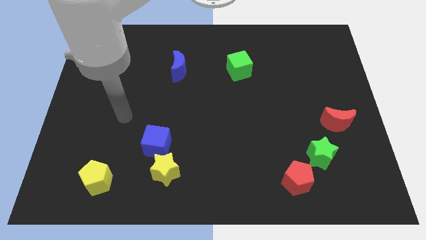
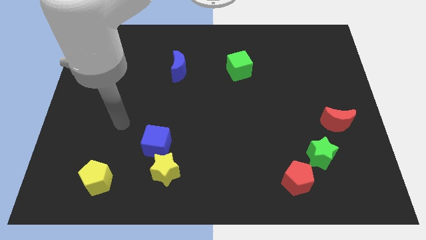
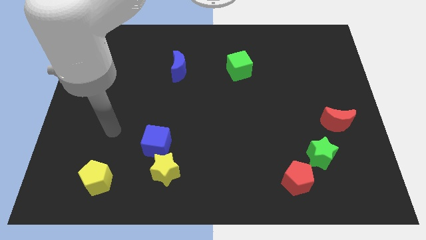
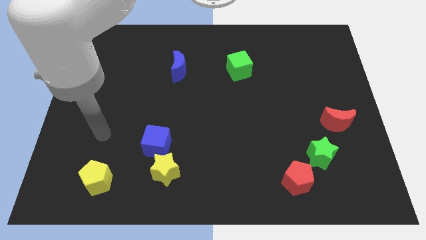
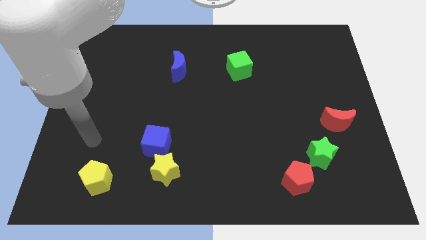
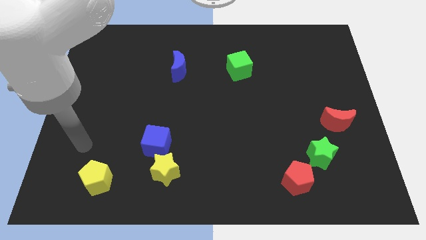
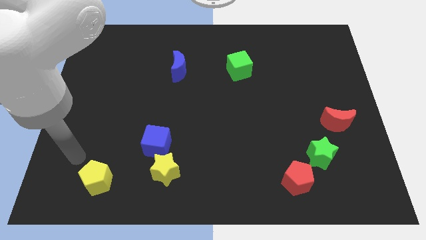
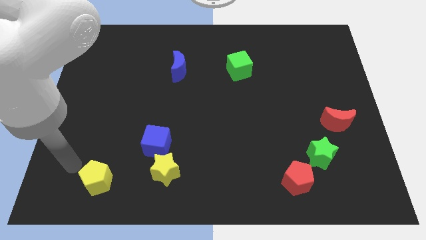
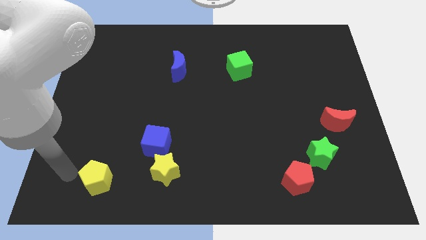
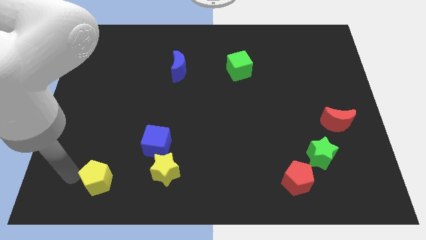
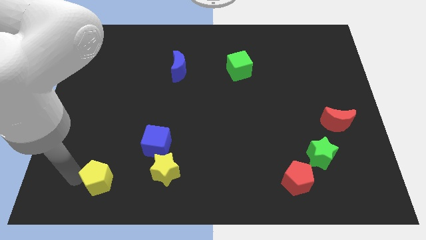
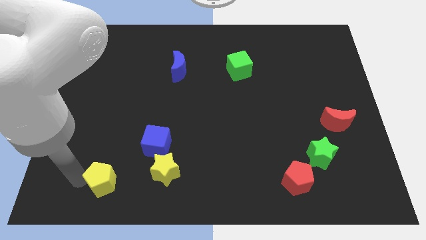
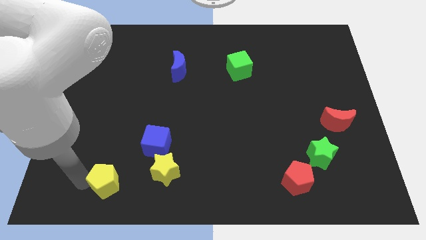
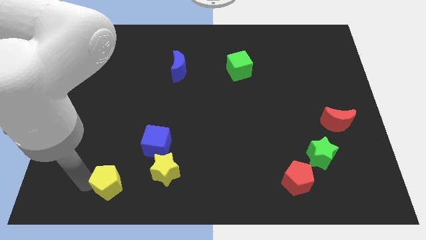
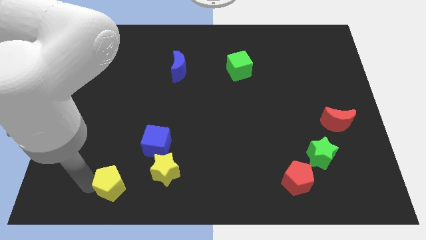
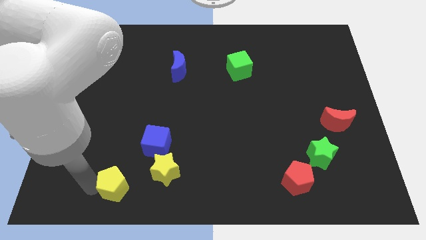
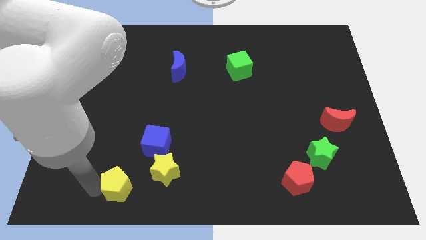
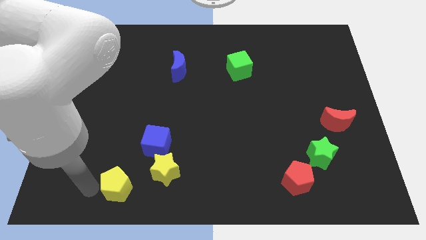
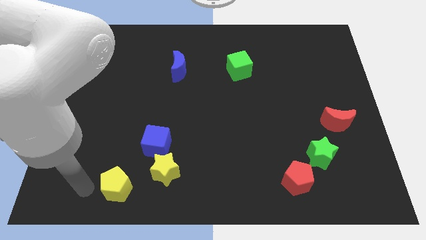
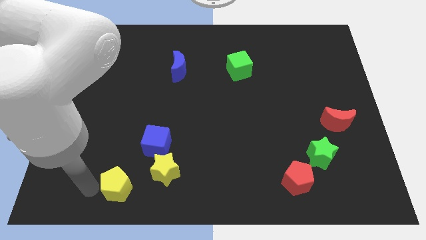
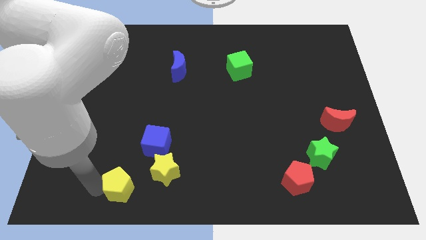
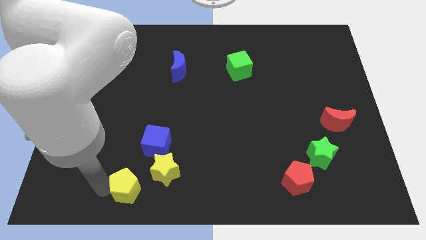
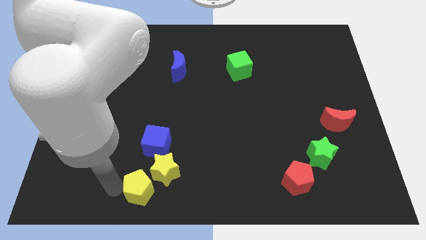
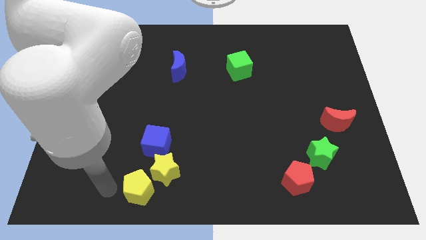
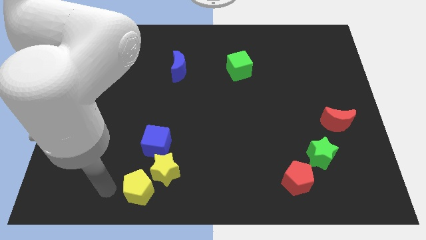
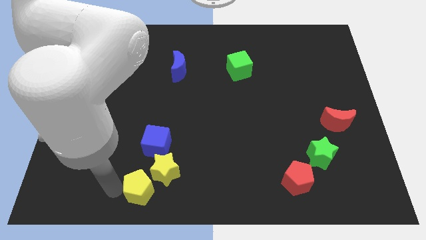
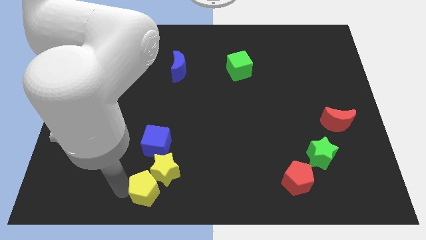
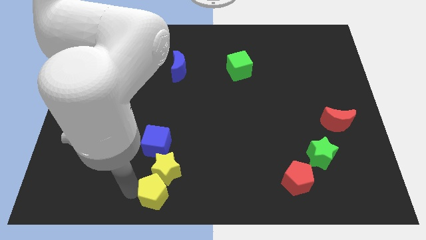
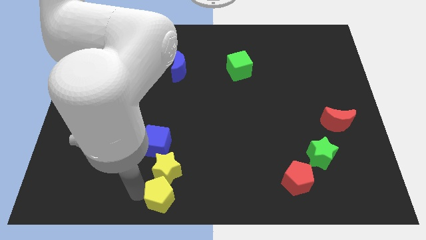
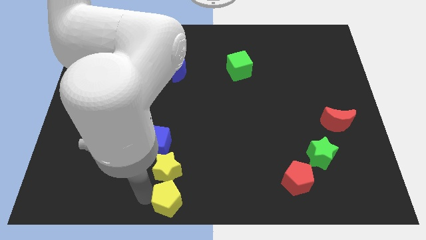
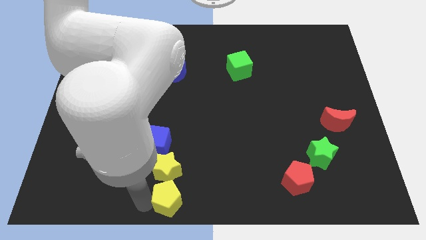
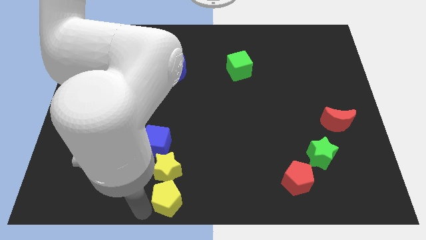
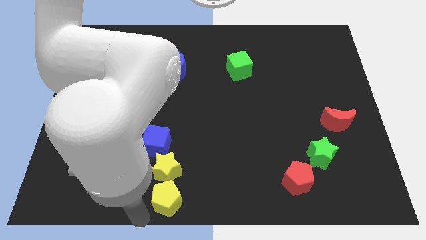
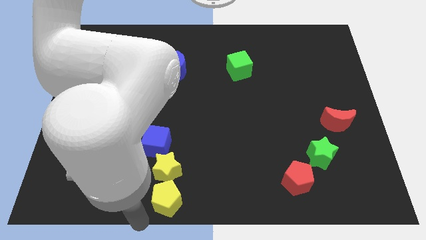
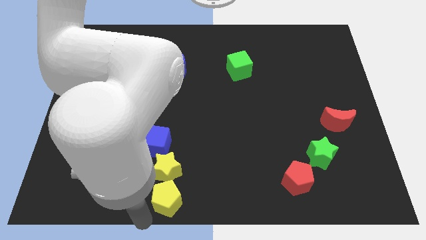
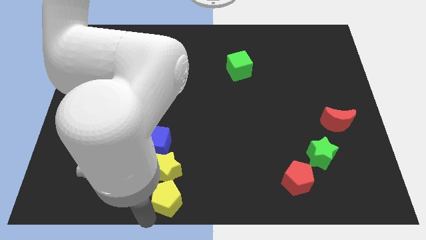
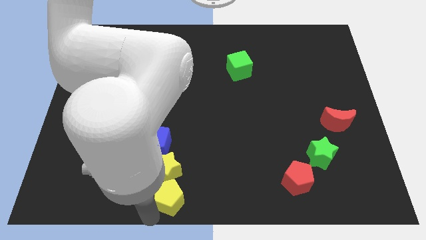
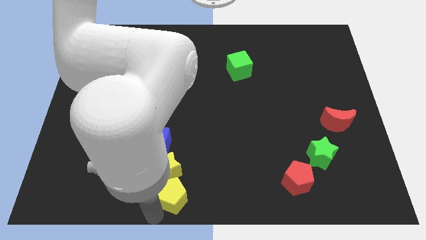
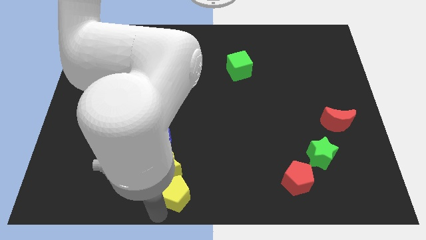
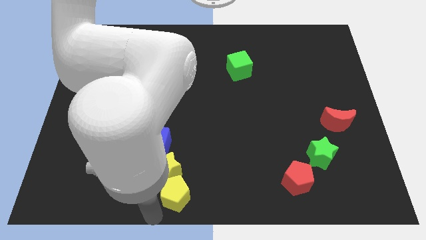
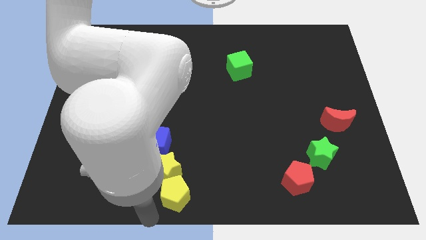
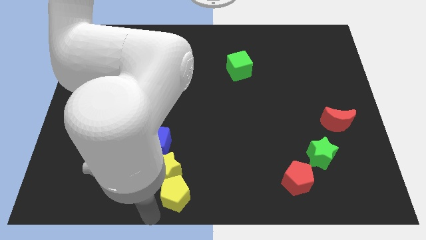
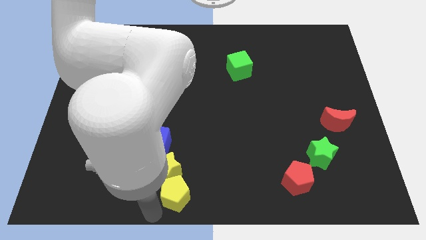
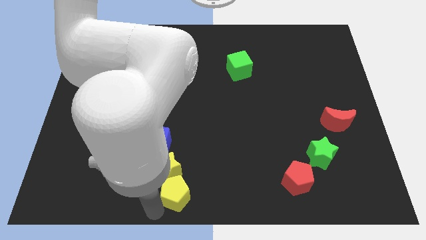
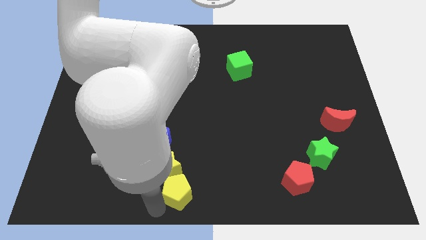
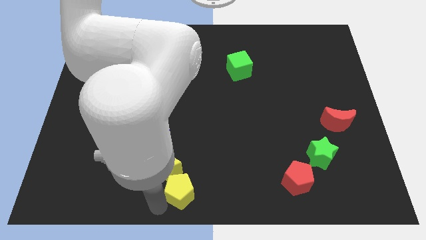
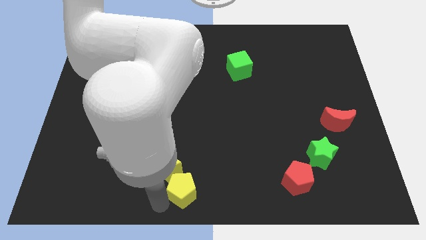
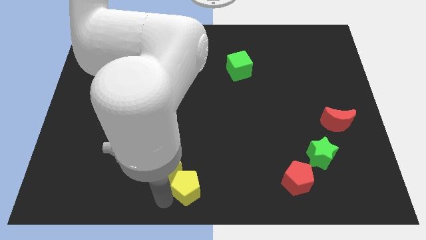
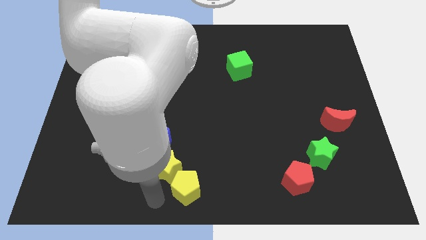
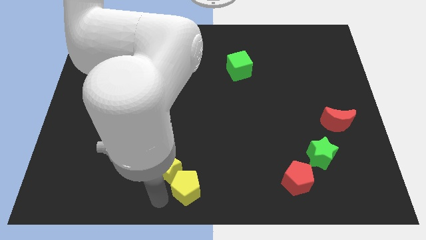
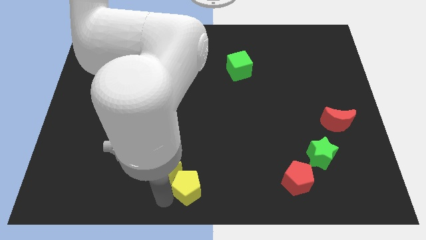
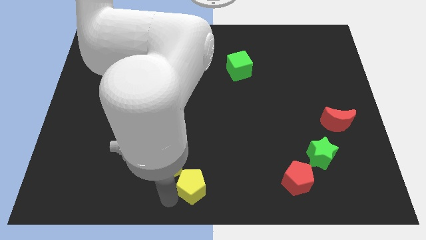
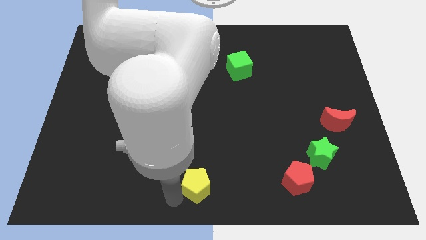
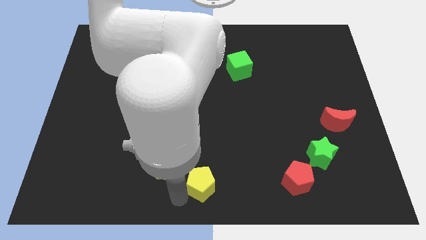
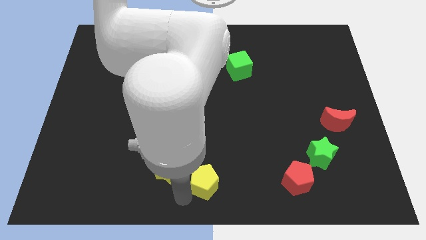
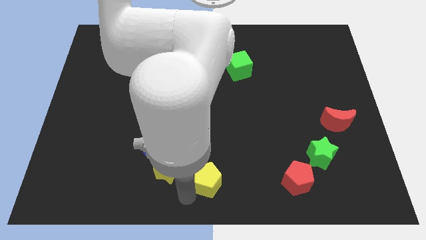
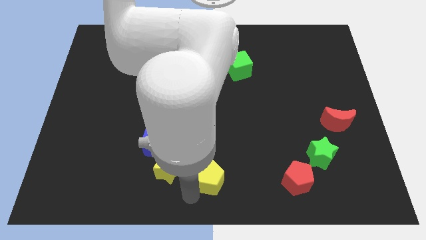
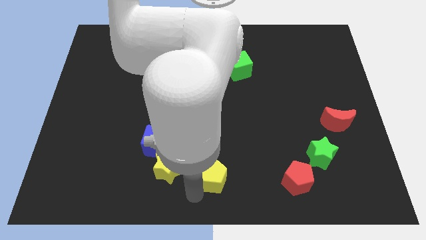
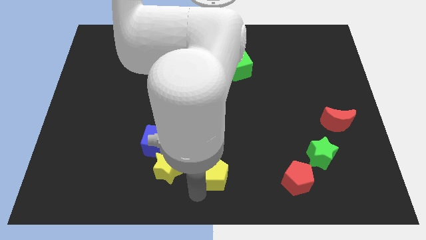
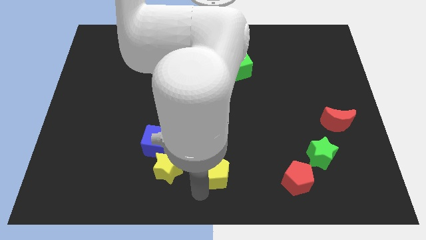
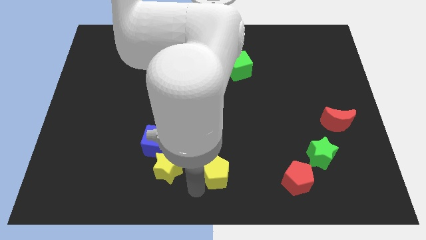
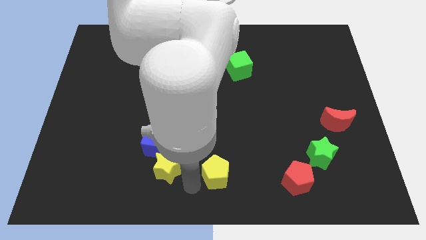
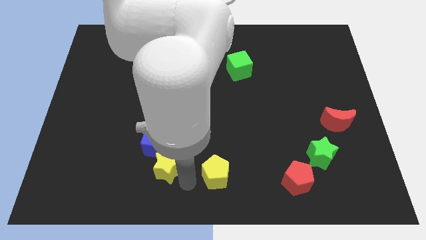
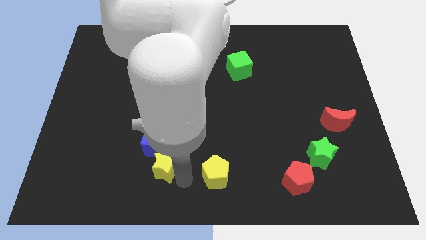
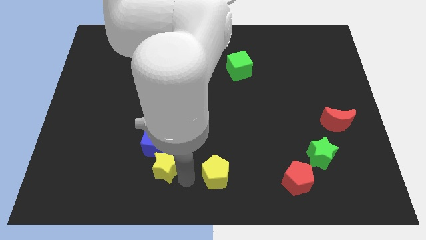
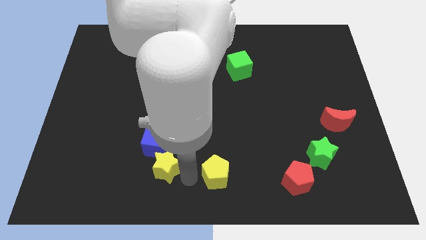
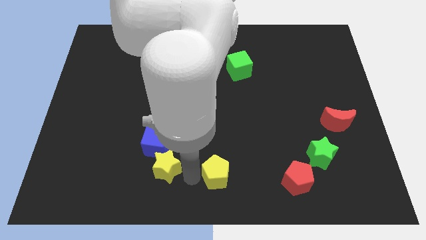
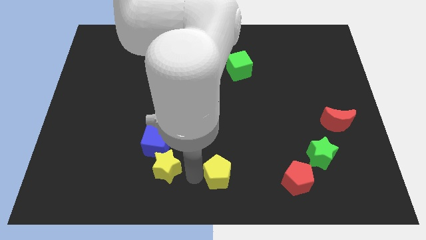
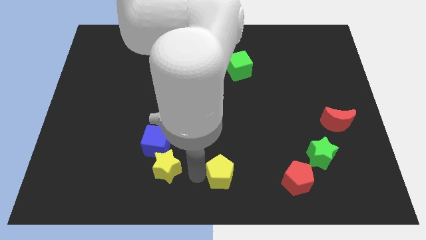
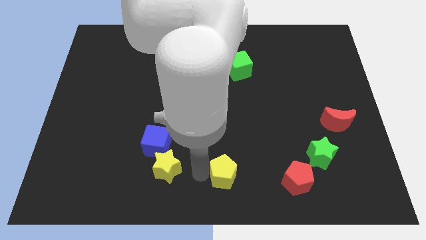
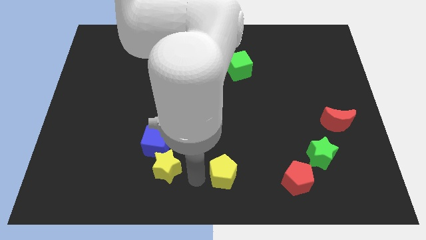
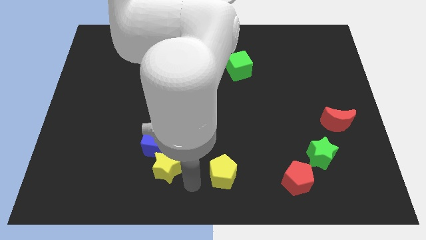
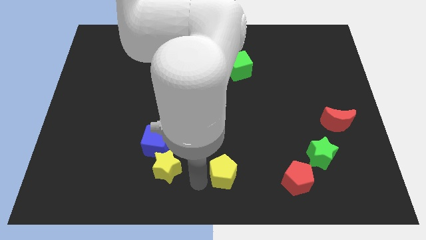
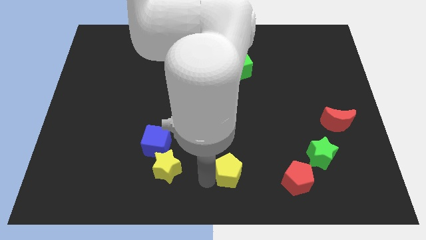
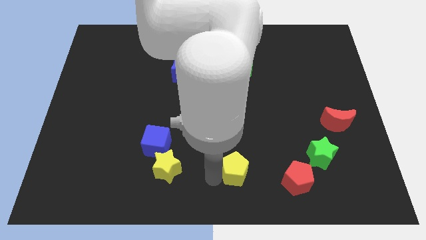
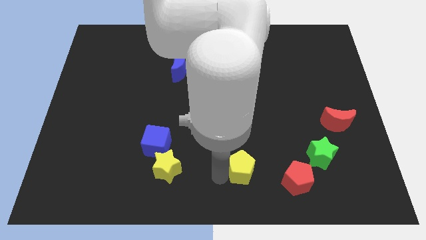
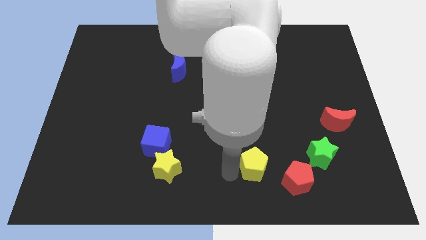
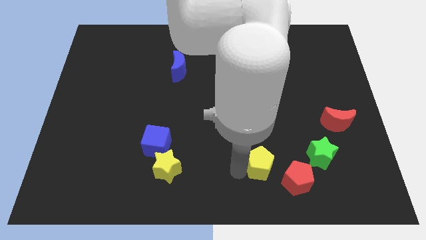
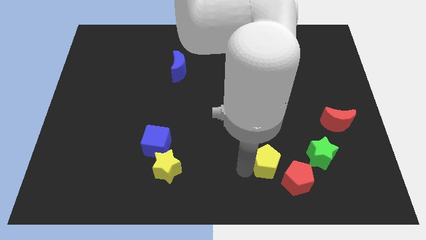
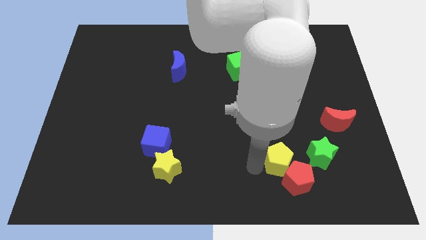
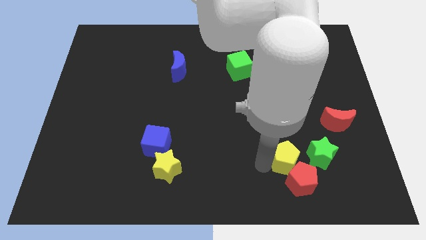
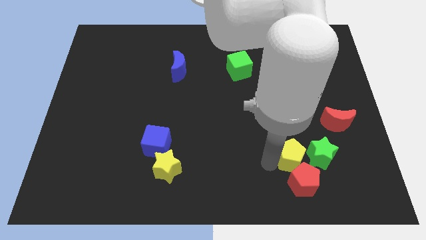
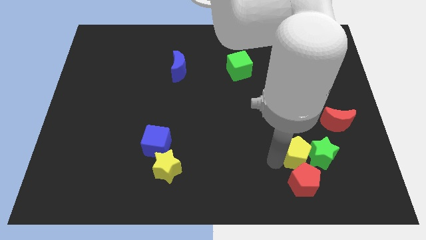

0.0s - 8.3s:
put the yellow pentagon close to the green star
